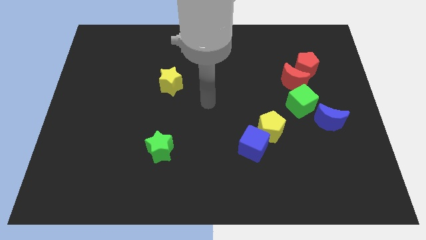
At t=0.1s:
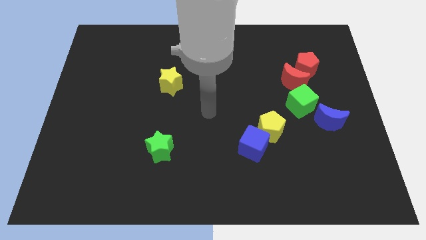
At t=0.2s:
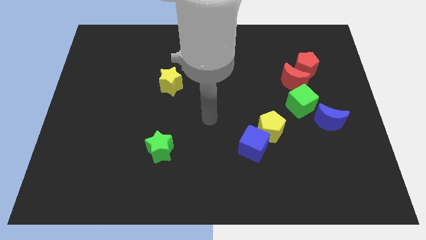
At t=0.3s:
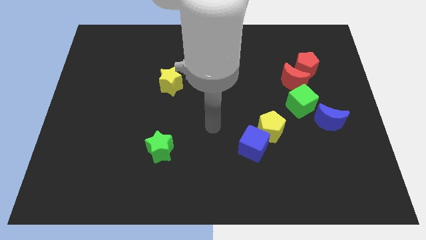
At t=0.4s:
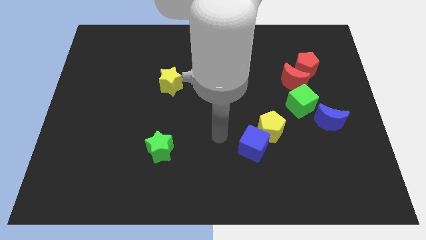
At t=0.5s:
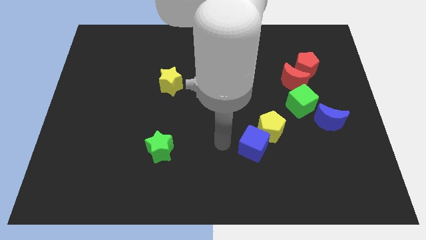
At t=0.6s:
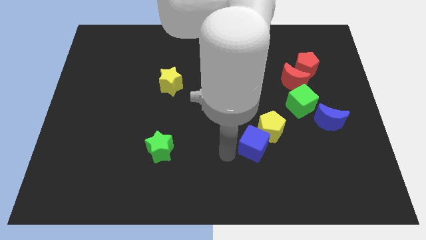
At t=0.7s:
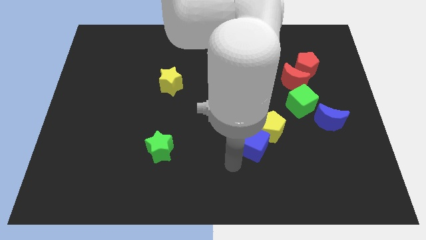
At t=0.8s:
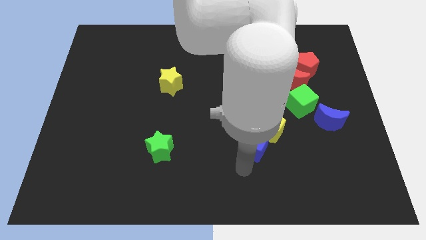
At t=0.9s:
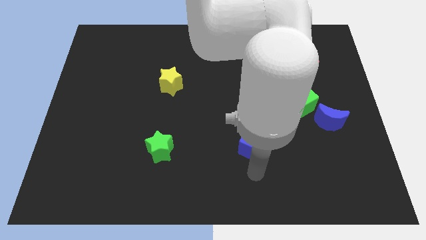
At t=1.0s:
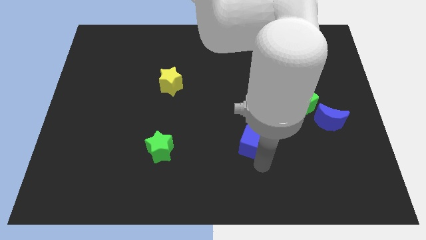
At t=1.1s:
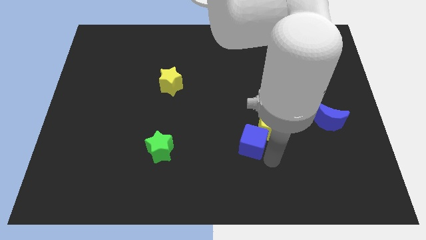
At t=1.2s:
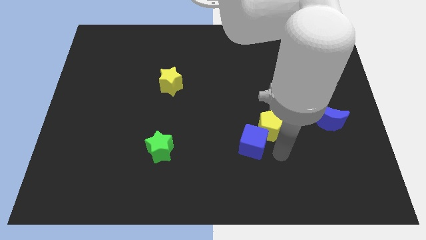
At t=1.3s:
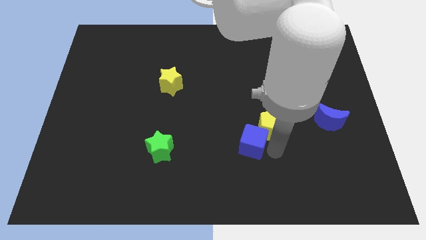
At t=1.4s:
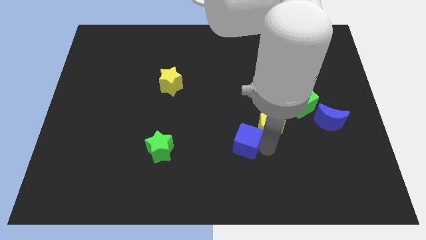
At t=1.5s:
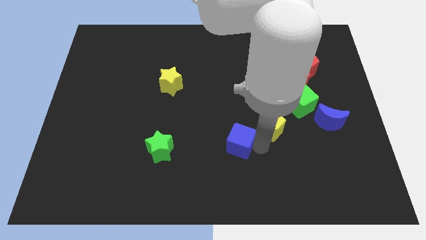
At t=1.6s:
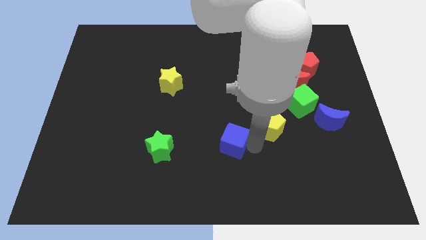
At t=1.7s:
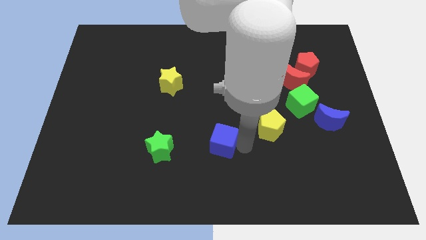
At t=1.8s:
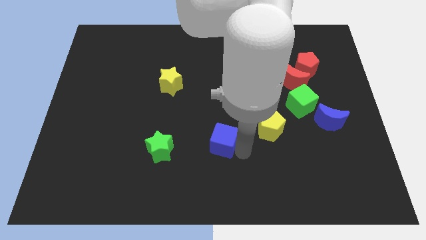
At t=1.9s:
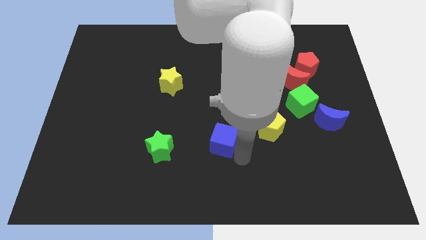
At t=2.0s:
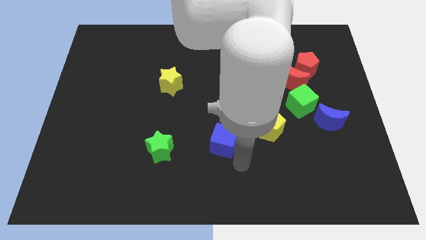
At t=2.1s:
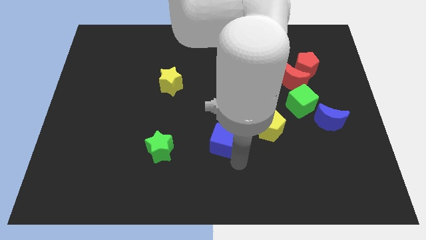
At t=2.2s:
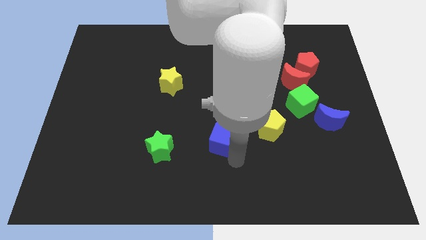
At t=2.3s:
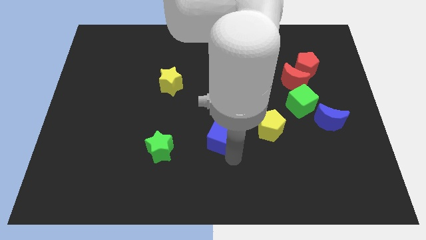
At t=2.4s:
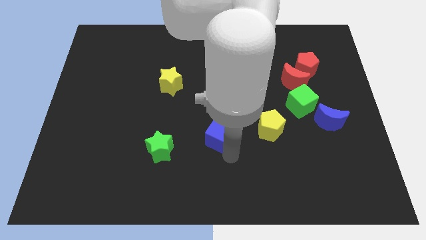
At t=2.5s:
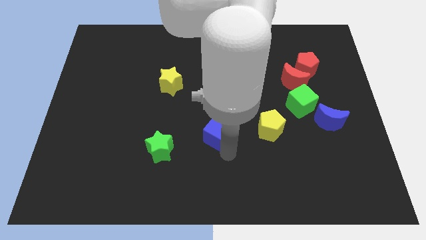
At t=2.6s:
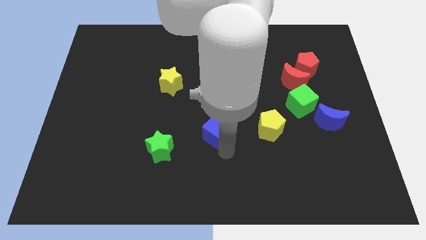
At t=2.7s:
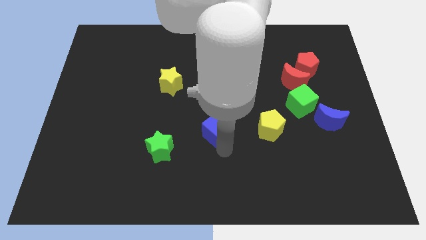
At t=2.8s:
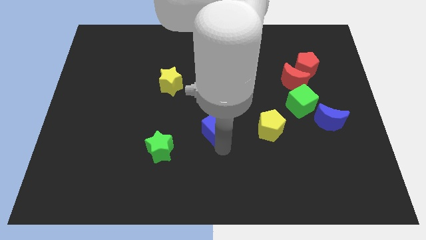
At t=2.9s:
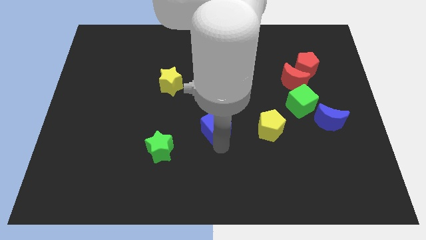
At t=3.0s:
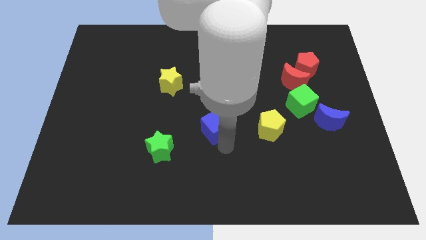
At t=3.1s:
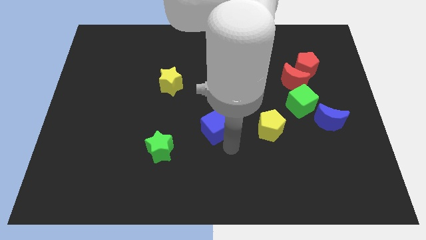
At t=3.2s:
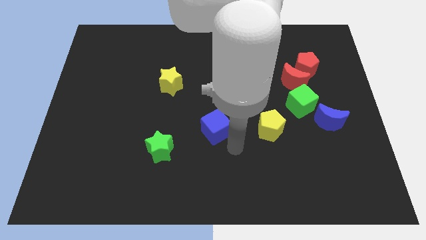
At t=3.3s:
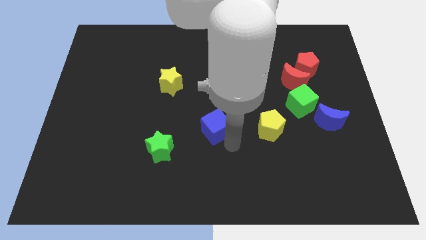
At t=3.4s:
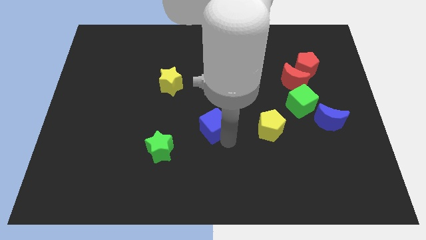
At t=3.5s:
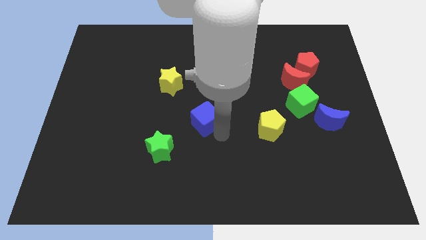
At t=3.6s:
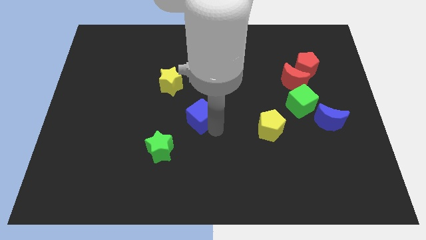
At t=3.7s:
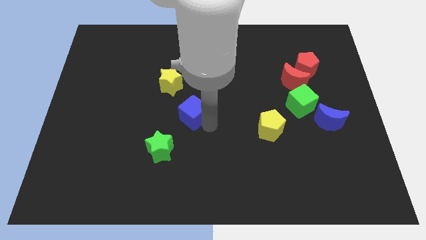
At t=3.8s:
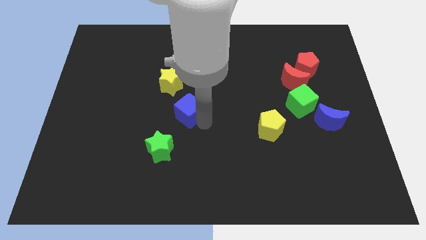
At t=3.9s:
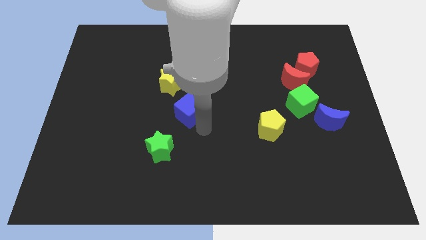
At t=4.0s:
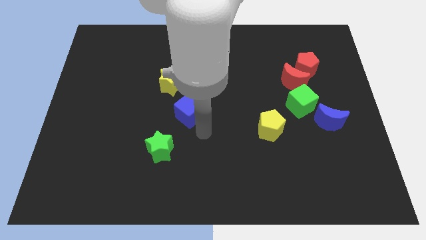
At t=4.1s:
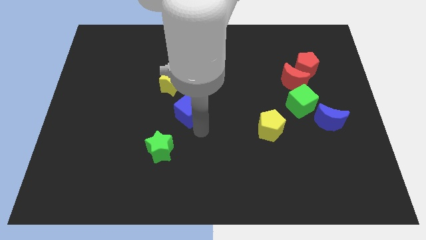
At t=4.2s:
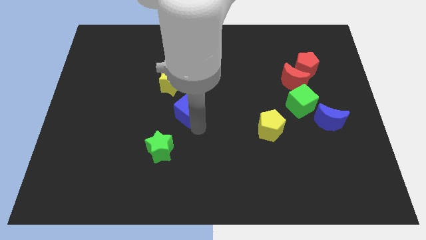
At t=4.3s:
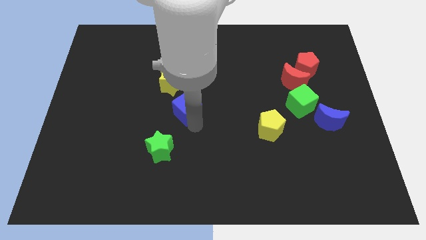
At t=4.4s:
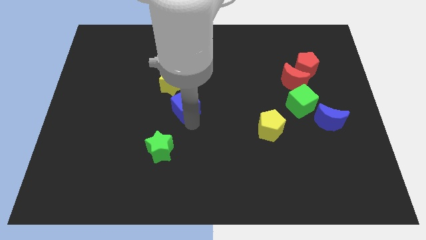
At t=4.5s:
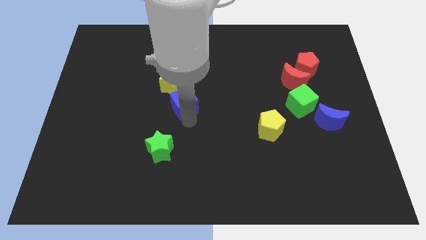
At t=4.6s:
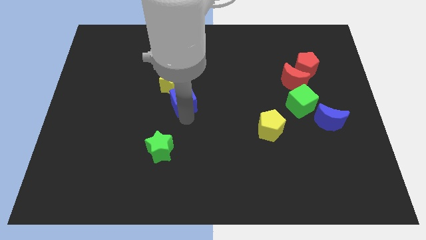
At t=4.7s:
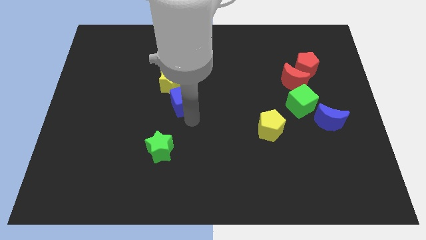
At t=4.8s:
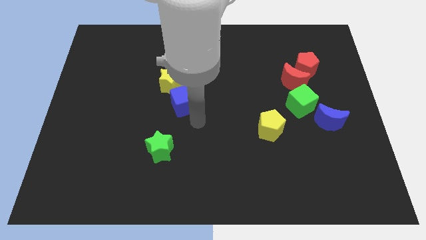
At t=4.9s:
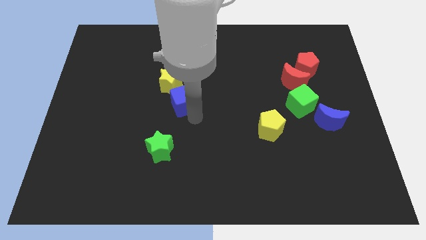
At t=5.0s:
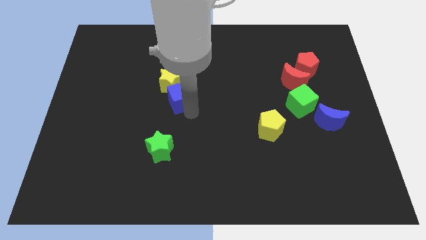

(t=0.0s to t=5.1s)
put the blue cube next to the yellow star

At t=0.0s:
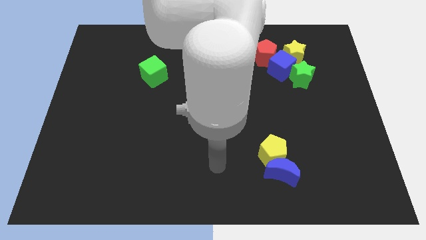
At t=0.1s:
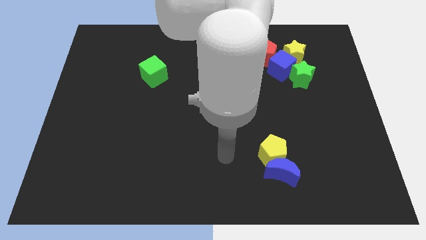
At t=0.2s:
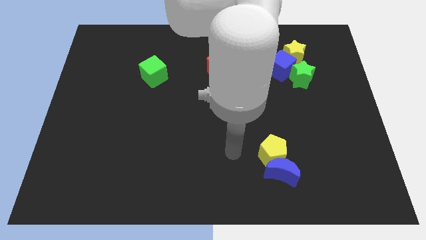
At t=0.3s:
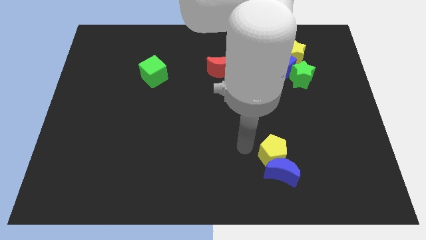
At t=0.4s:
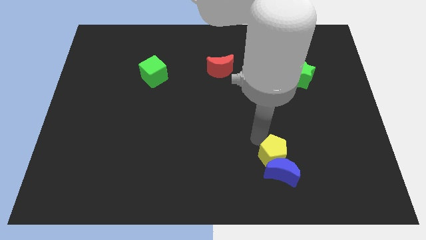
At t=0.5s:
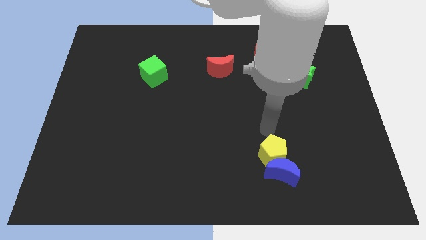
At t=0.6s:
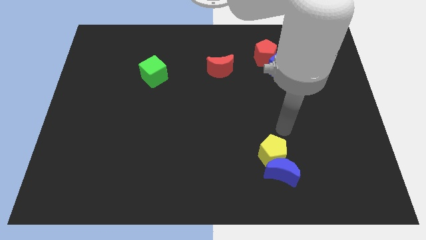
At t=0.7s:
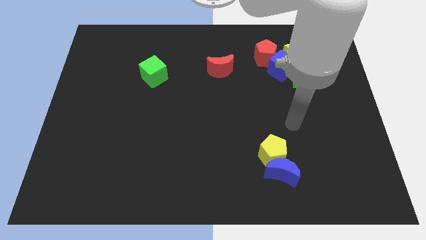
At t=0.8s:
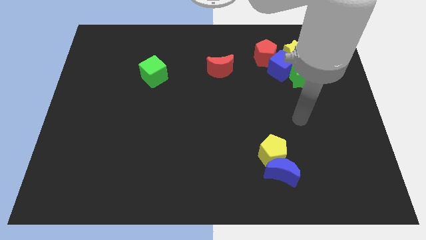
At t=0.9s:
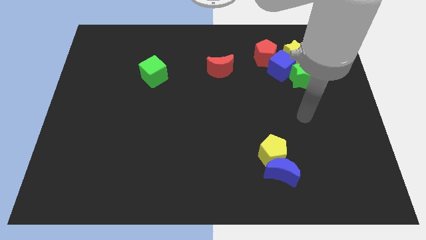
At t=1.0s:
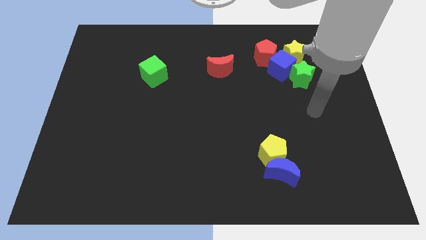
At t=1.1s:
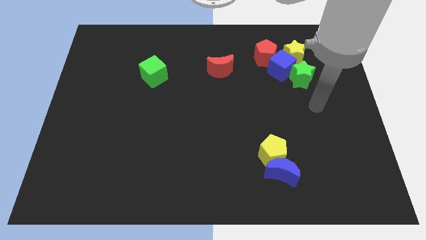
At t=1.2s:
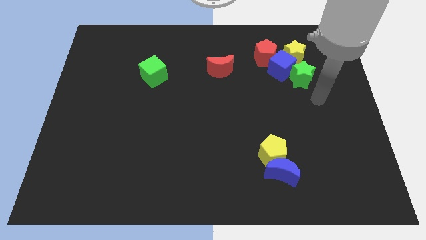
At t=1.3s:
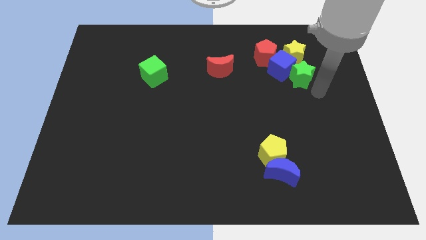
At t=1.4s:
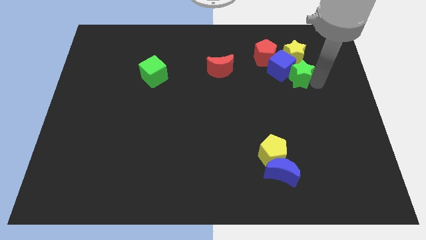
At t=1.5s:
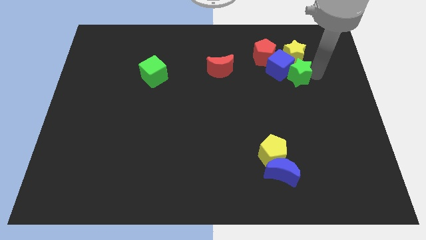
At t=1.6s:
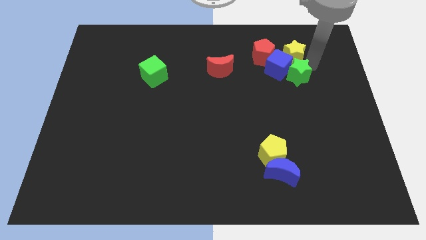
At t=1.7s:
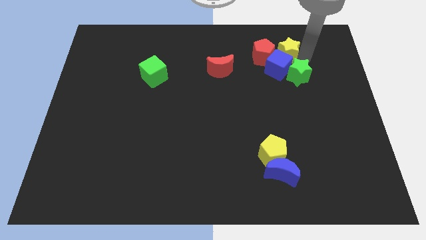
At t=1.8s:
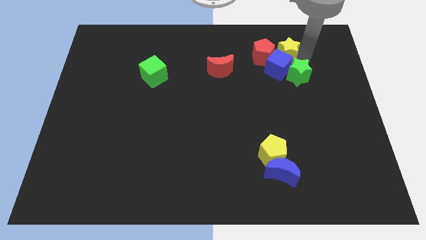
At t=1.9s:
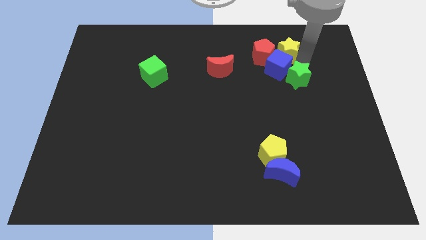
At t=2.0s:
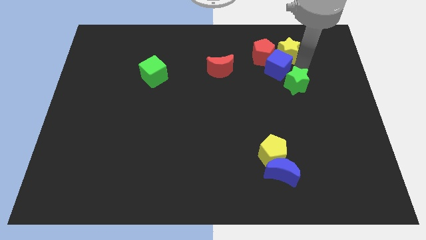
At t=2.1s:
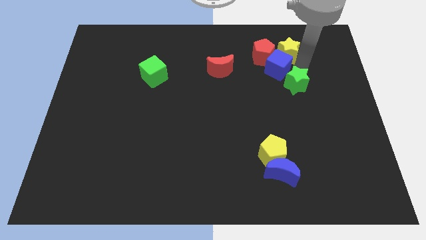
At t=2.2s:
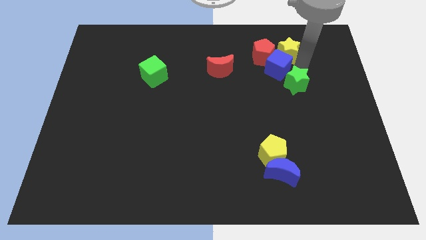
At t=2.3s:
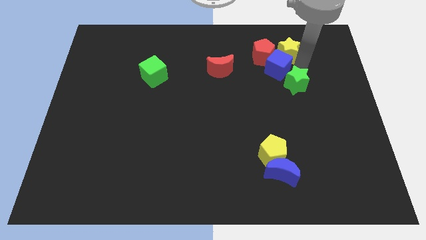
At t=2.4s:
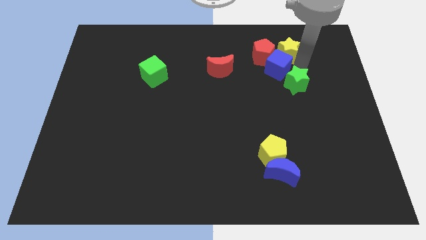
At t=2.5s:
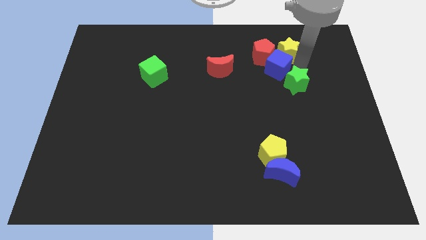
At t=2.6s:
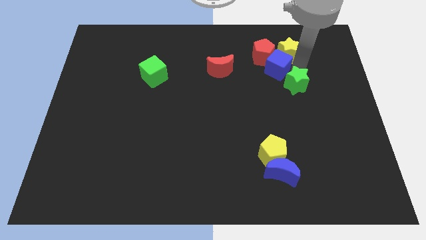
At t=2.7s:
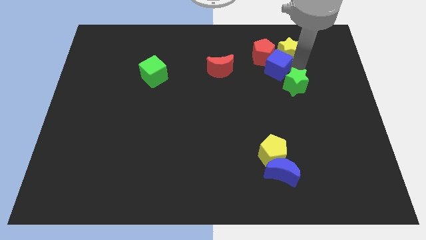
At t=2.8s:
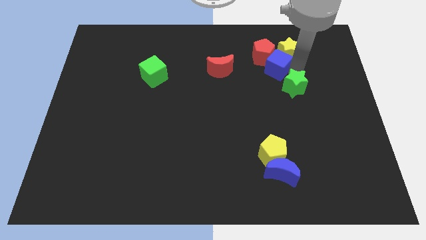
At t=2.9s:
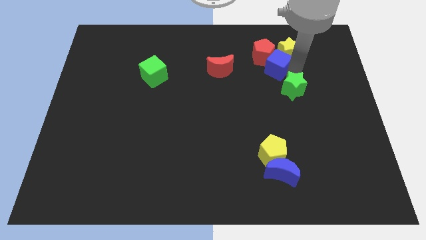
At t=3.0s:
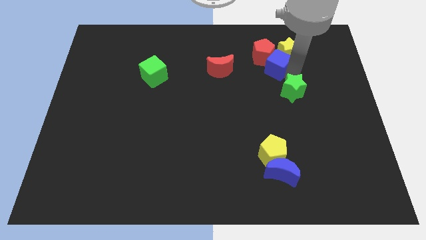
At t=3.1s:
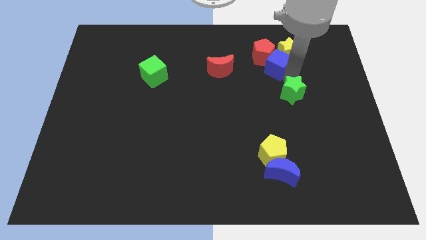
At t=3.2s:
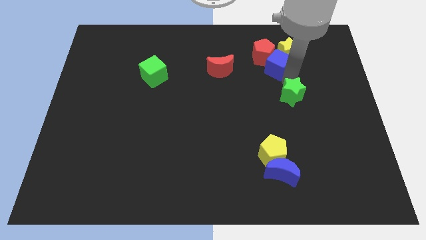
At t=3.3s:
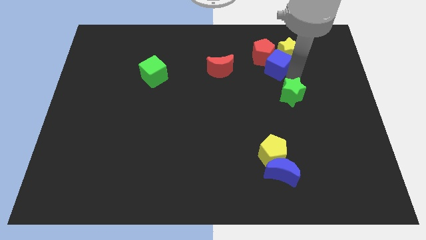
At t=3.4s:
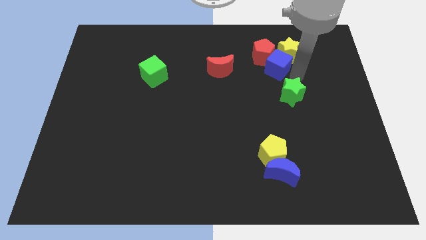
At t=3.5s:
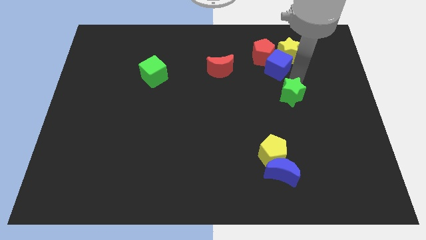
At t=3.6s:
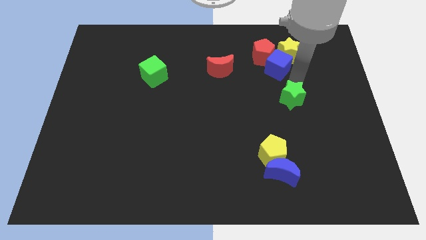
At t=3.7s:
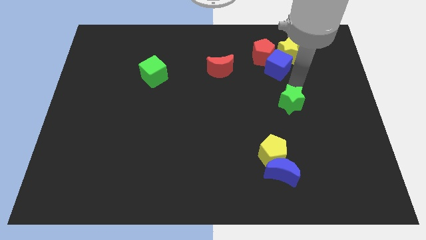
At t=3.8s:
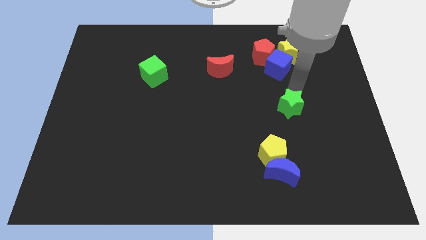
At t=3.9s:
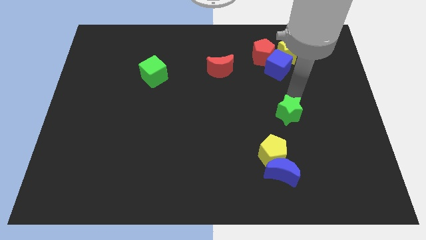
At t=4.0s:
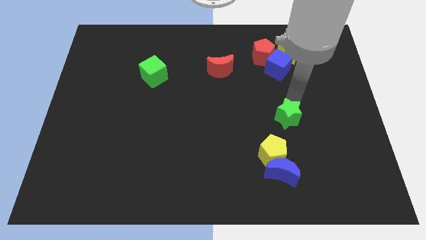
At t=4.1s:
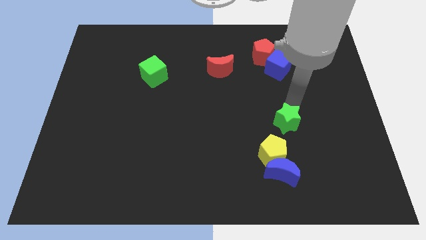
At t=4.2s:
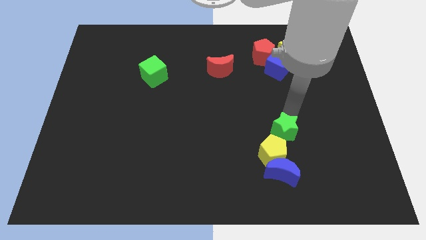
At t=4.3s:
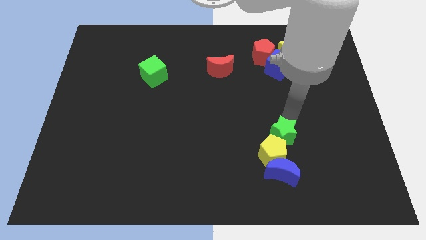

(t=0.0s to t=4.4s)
put the green star towards the yellow pentagon
